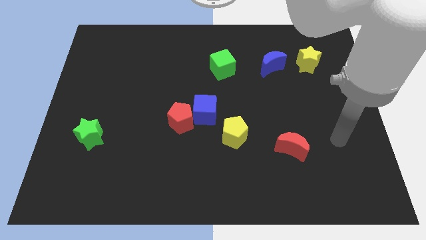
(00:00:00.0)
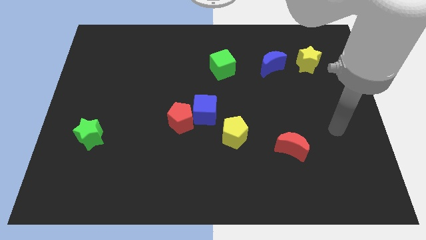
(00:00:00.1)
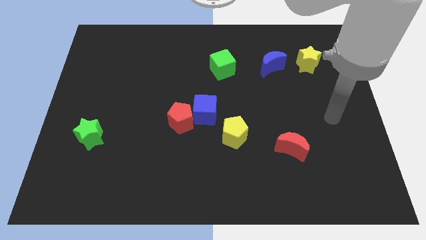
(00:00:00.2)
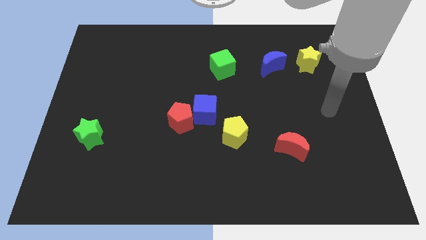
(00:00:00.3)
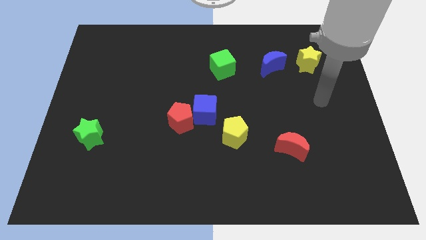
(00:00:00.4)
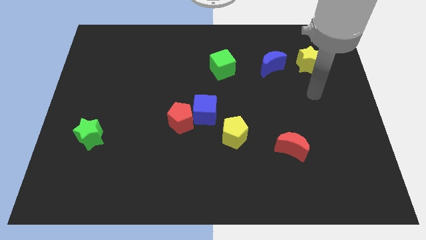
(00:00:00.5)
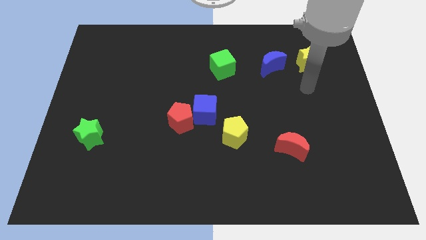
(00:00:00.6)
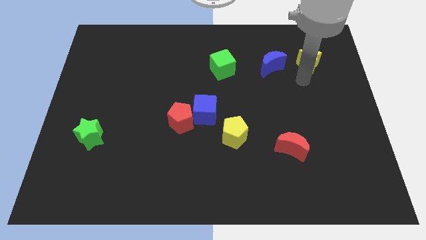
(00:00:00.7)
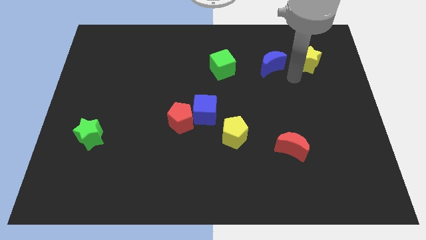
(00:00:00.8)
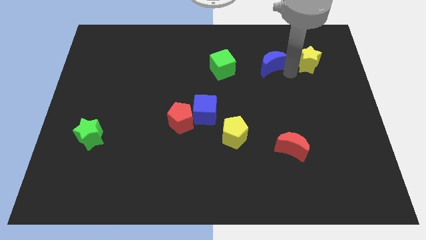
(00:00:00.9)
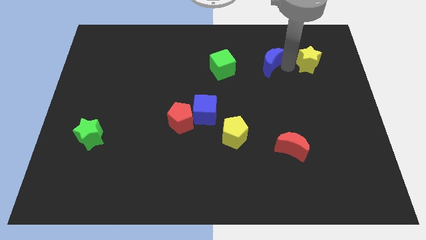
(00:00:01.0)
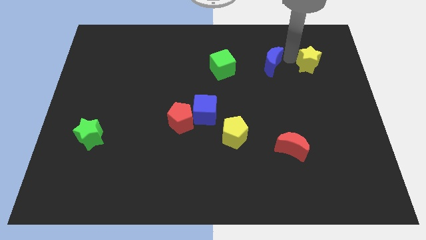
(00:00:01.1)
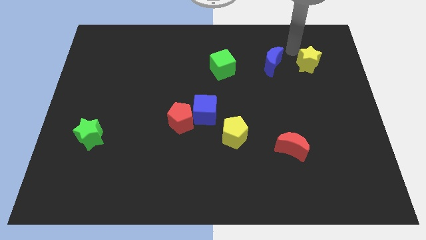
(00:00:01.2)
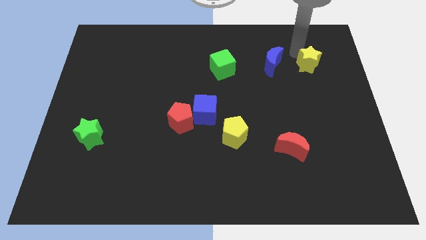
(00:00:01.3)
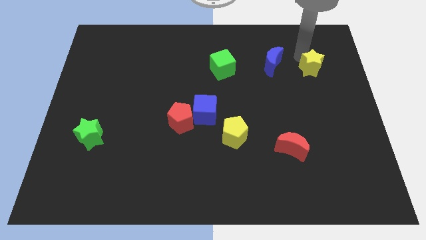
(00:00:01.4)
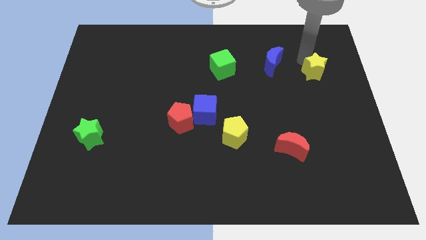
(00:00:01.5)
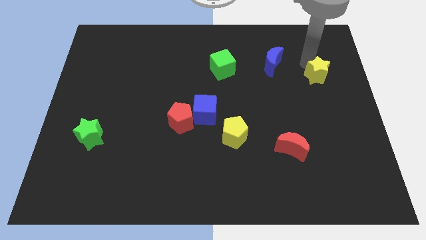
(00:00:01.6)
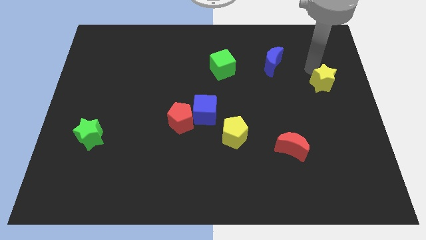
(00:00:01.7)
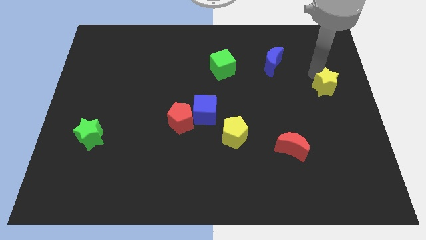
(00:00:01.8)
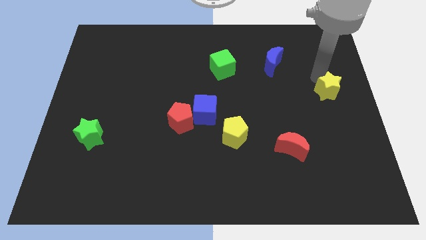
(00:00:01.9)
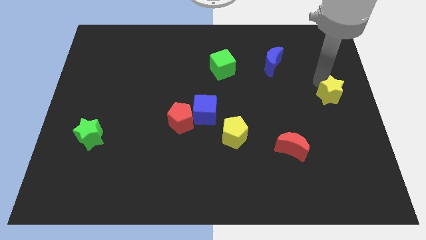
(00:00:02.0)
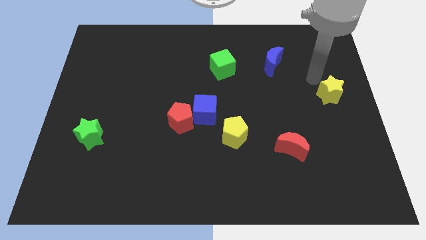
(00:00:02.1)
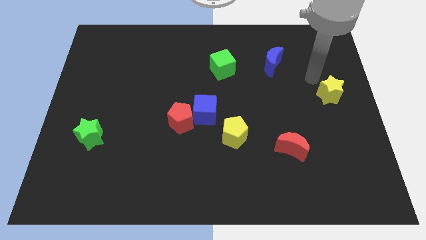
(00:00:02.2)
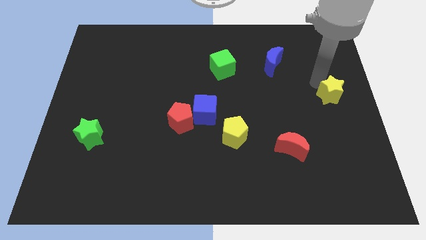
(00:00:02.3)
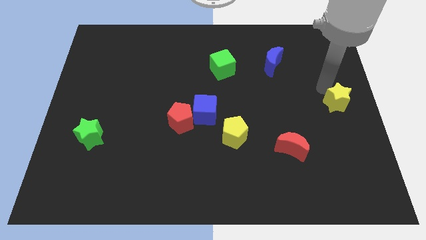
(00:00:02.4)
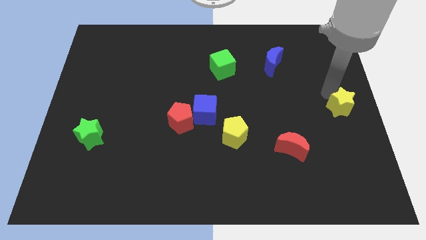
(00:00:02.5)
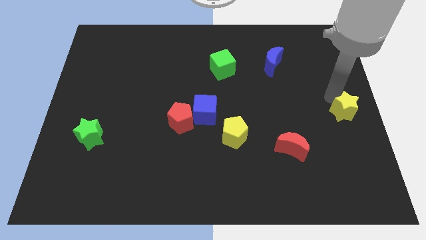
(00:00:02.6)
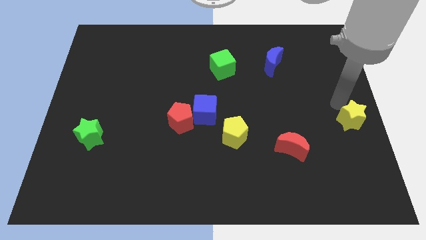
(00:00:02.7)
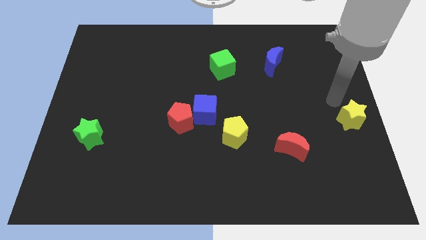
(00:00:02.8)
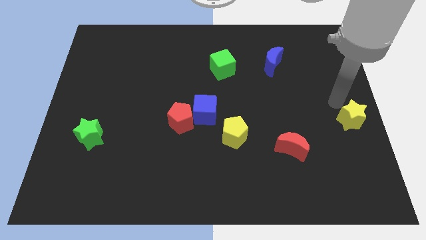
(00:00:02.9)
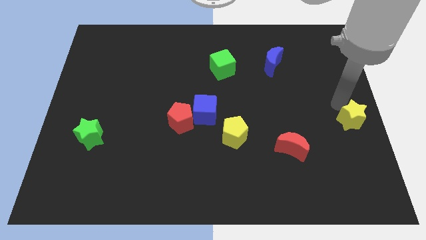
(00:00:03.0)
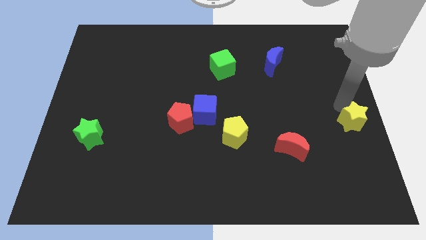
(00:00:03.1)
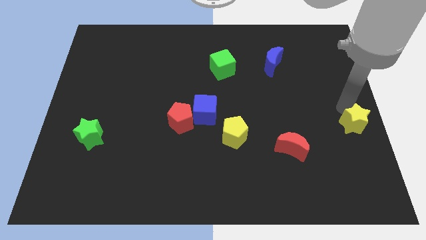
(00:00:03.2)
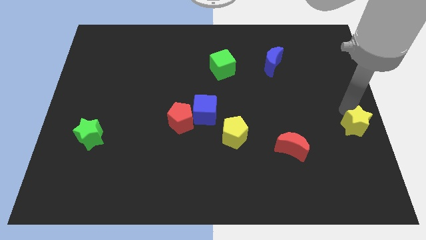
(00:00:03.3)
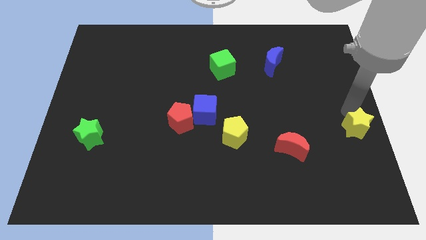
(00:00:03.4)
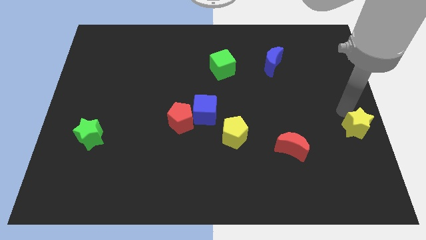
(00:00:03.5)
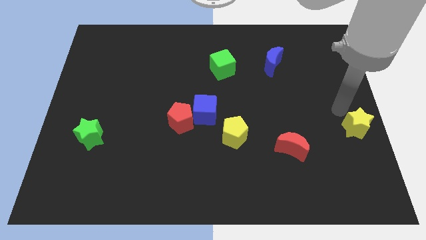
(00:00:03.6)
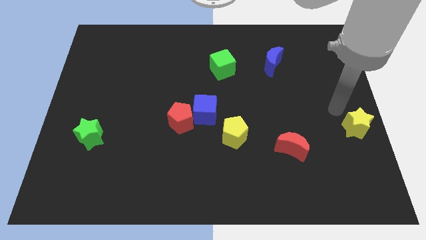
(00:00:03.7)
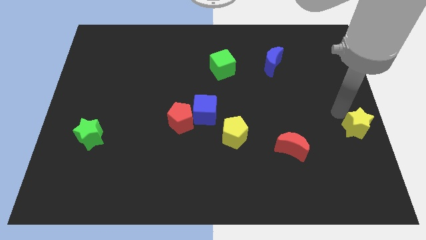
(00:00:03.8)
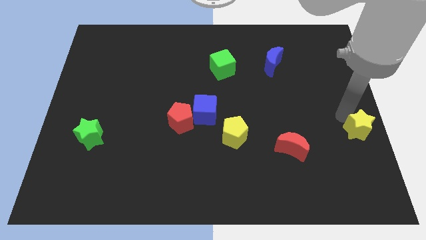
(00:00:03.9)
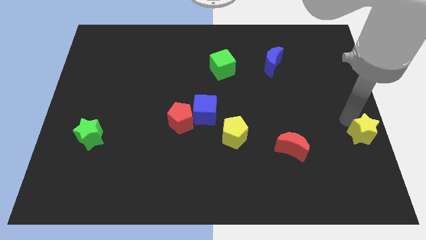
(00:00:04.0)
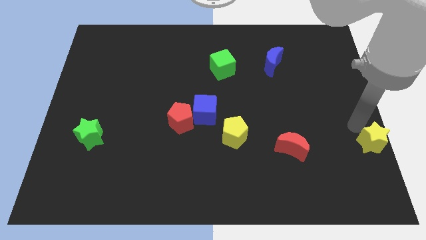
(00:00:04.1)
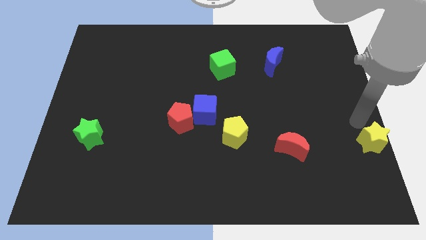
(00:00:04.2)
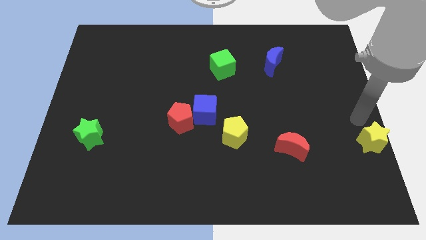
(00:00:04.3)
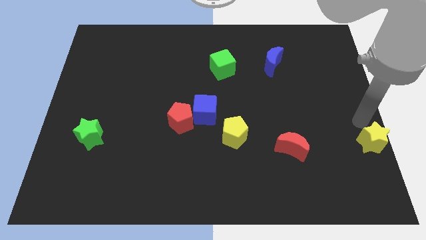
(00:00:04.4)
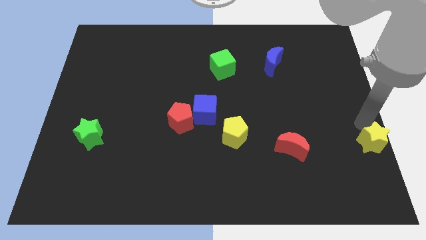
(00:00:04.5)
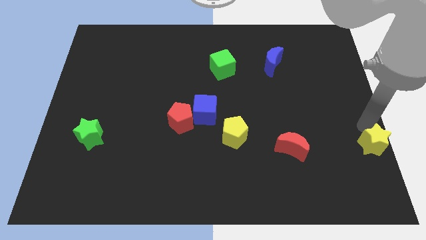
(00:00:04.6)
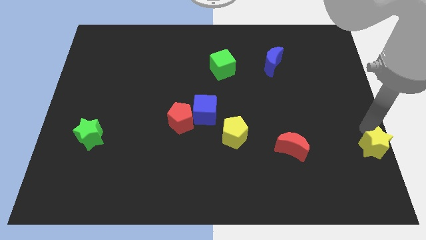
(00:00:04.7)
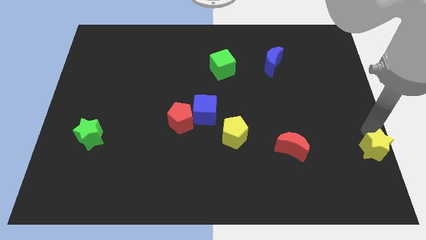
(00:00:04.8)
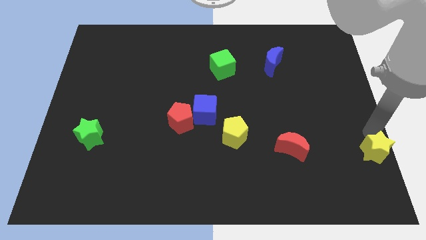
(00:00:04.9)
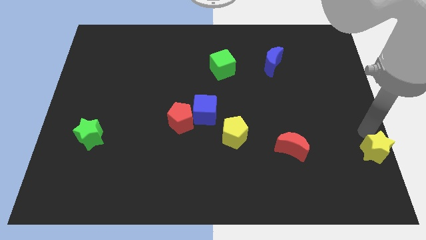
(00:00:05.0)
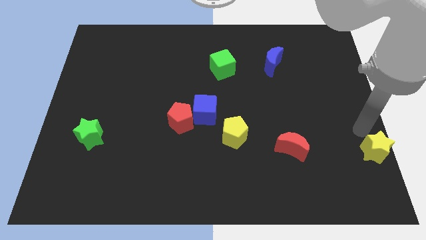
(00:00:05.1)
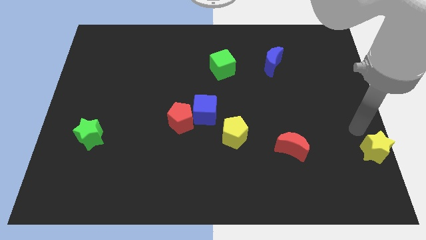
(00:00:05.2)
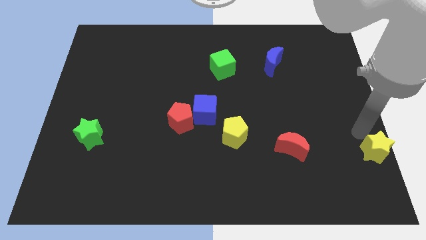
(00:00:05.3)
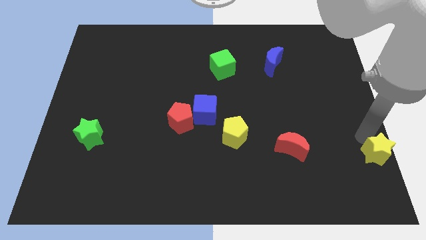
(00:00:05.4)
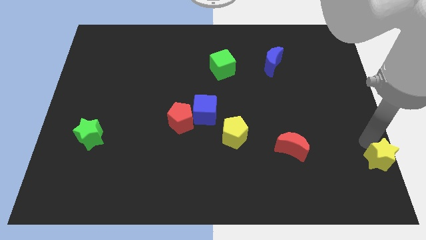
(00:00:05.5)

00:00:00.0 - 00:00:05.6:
slide the yellow star to the bottom right

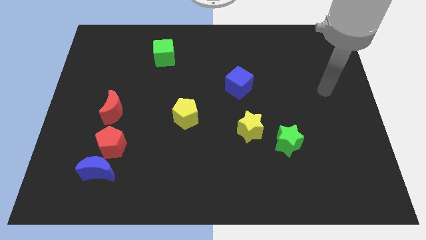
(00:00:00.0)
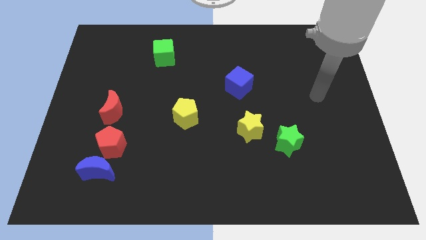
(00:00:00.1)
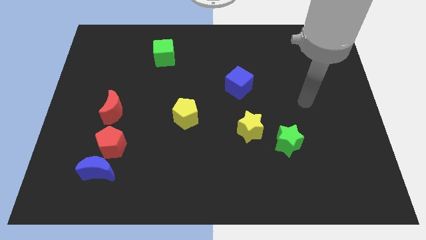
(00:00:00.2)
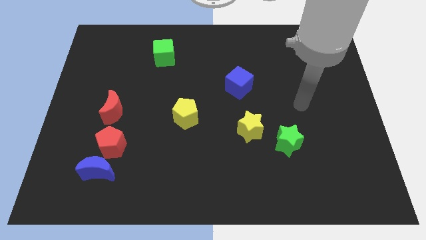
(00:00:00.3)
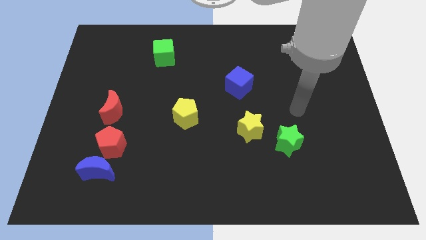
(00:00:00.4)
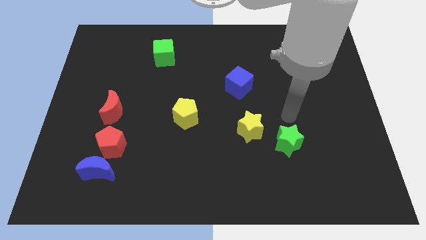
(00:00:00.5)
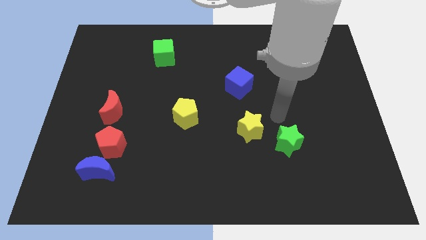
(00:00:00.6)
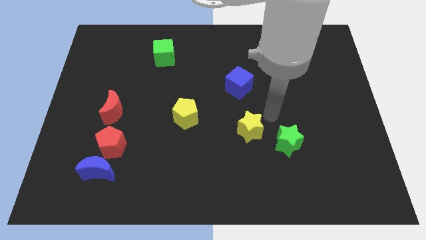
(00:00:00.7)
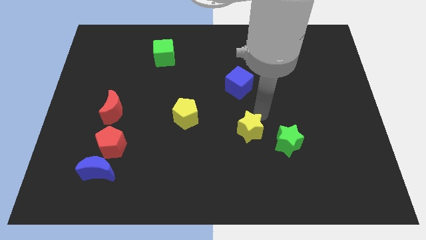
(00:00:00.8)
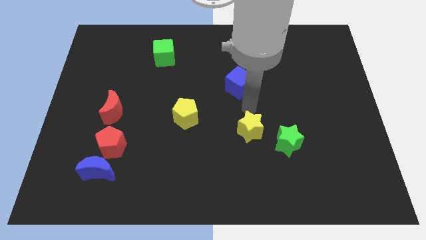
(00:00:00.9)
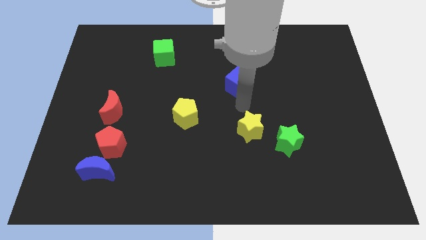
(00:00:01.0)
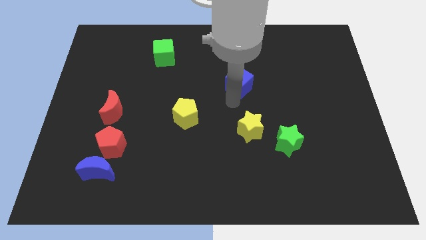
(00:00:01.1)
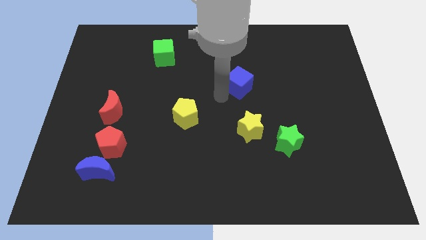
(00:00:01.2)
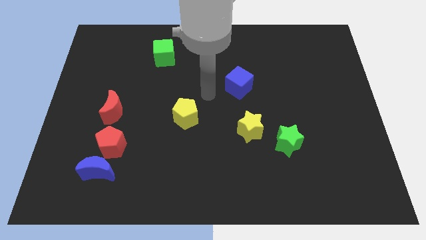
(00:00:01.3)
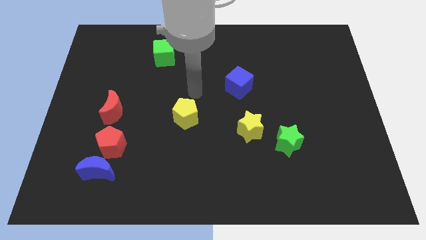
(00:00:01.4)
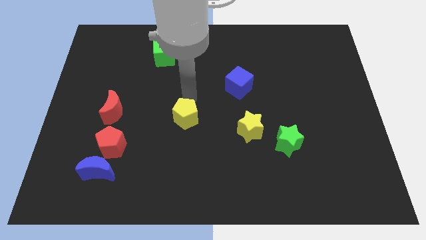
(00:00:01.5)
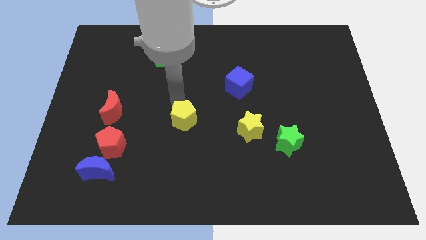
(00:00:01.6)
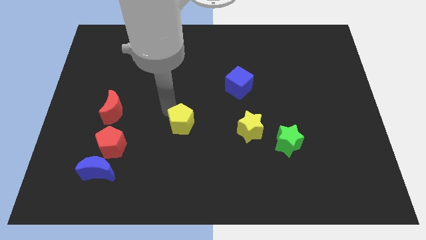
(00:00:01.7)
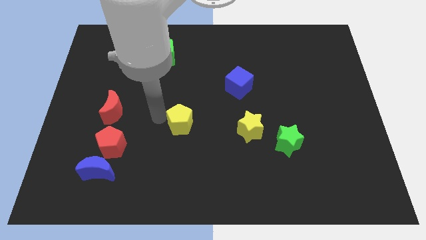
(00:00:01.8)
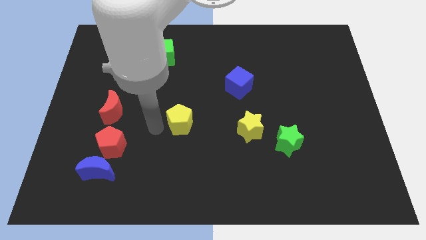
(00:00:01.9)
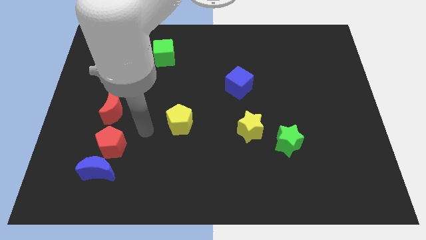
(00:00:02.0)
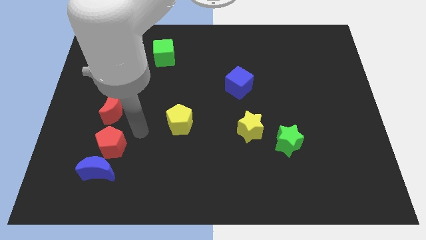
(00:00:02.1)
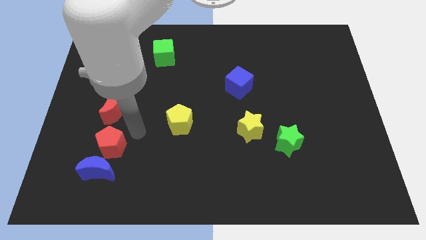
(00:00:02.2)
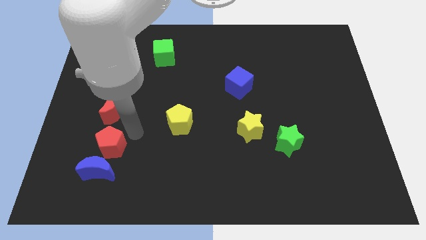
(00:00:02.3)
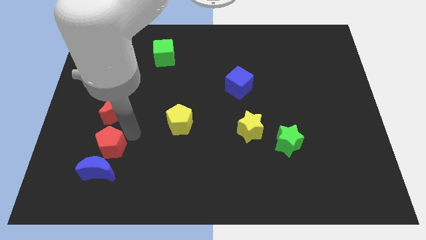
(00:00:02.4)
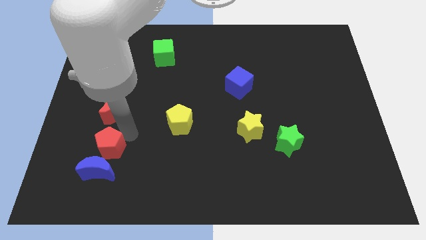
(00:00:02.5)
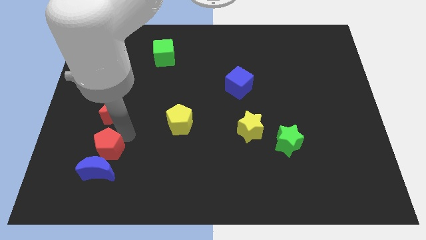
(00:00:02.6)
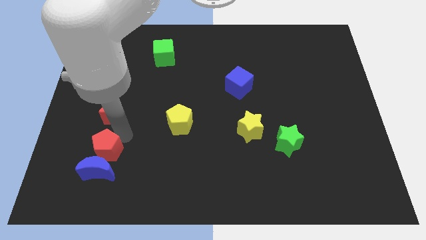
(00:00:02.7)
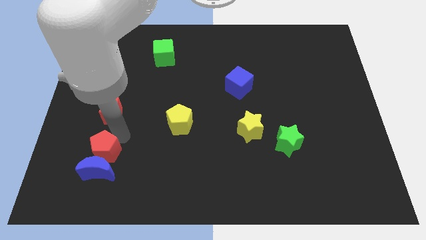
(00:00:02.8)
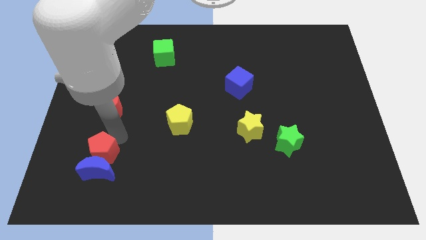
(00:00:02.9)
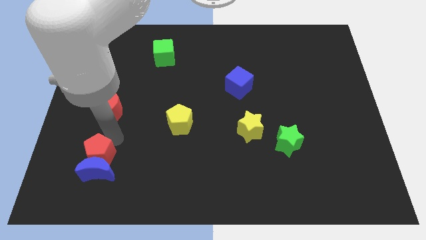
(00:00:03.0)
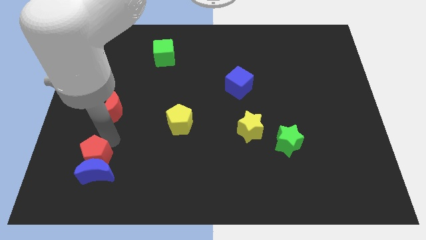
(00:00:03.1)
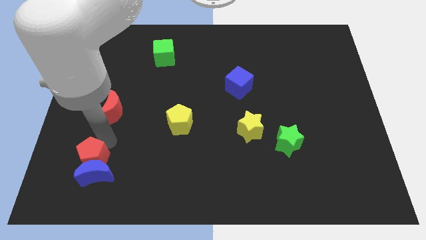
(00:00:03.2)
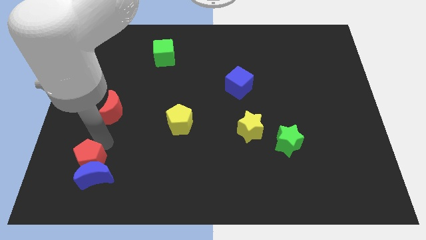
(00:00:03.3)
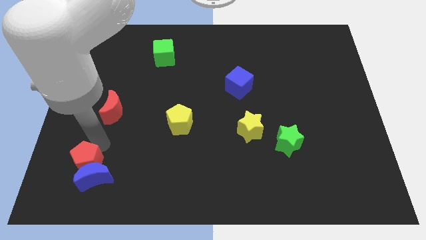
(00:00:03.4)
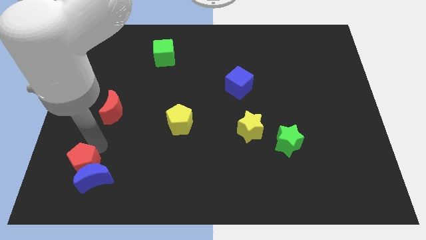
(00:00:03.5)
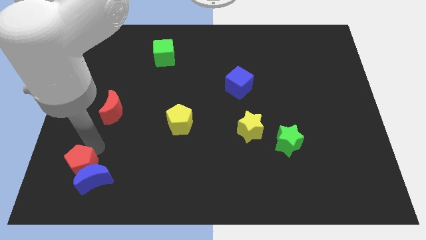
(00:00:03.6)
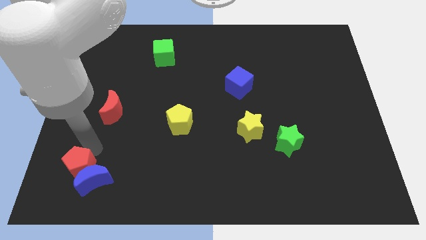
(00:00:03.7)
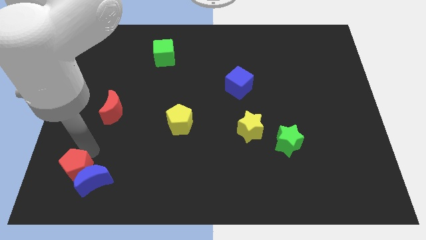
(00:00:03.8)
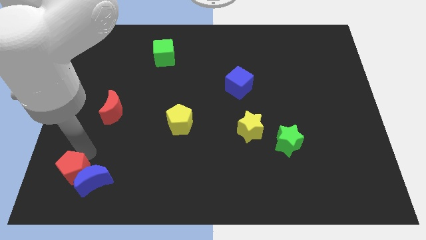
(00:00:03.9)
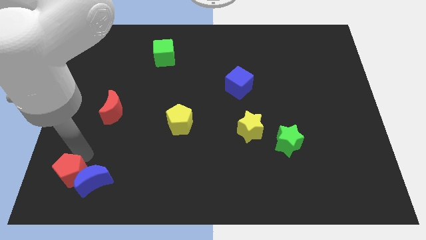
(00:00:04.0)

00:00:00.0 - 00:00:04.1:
slide the red pentagon to the lower left corner
